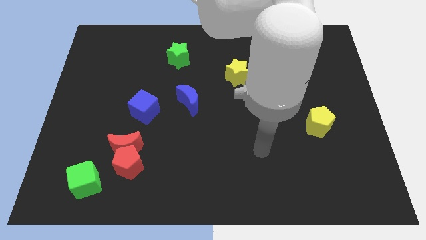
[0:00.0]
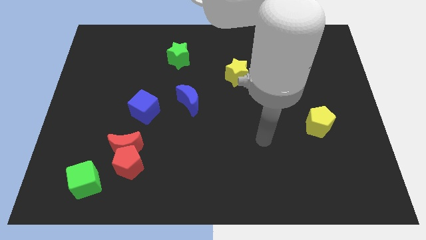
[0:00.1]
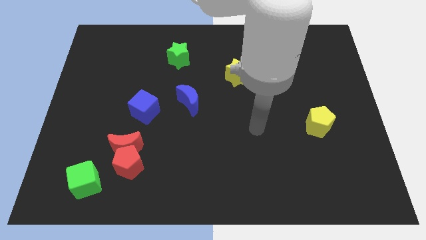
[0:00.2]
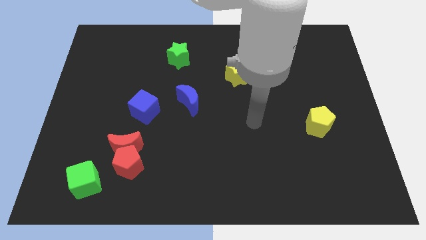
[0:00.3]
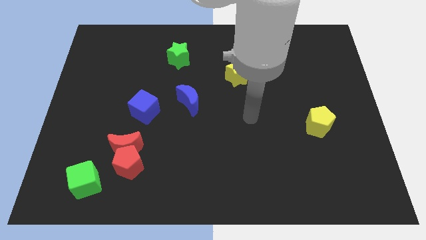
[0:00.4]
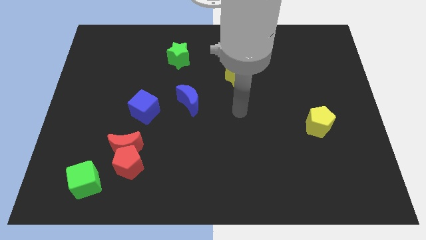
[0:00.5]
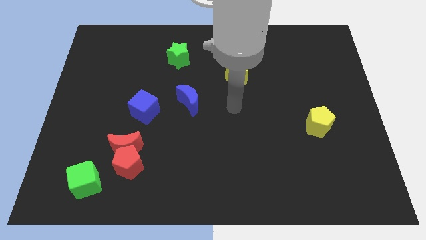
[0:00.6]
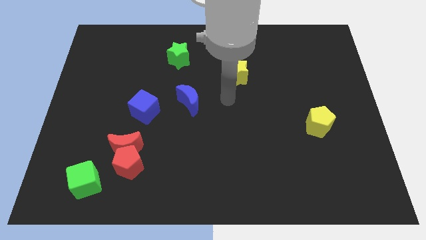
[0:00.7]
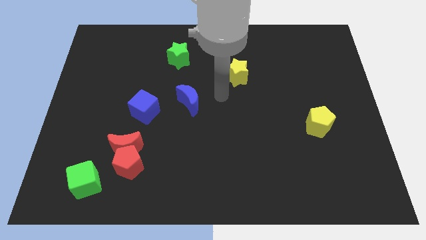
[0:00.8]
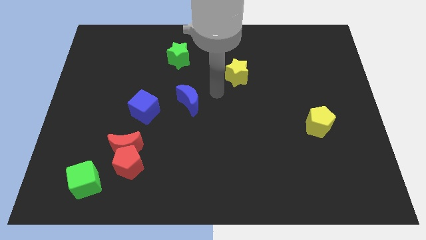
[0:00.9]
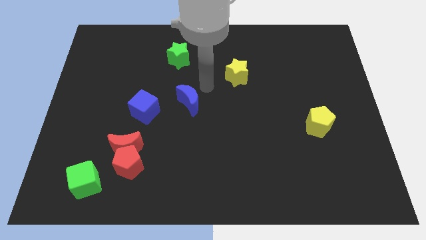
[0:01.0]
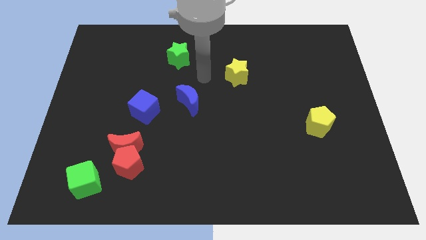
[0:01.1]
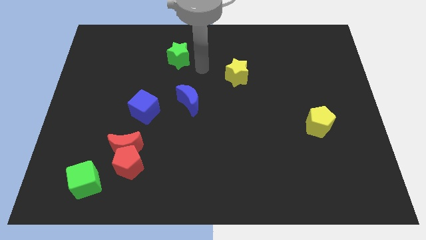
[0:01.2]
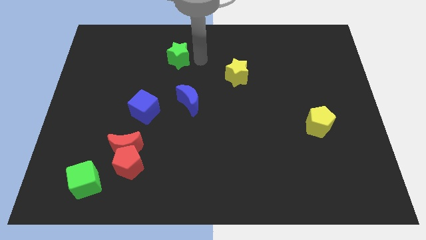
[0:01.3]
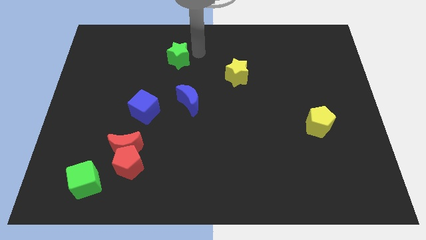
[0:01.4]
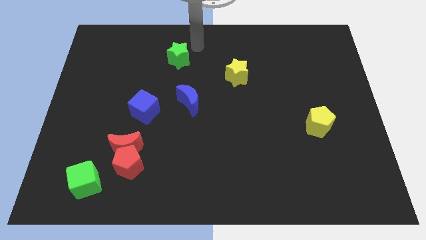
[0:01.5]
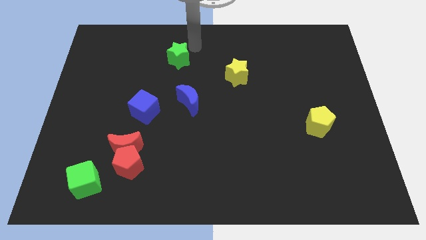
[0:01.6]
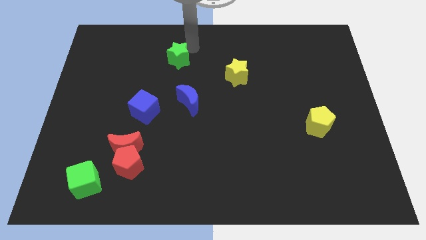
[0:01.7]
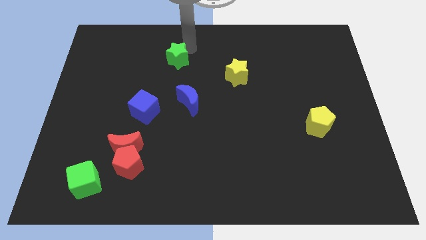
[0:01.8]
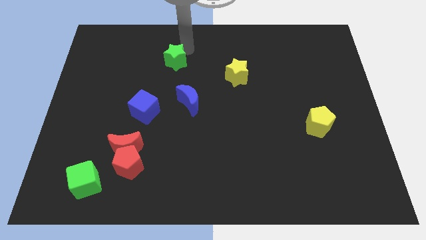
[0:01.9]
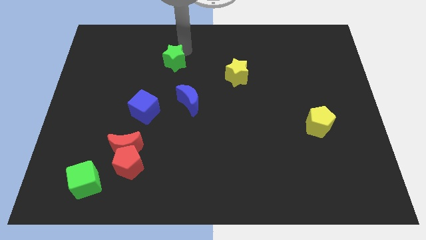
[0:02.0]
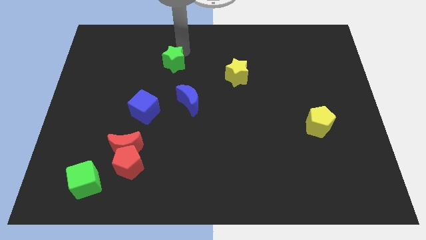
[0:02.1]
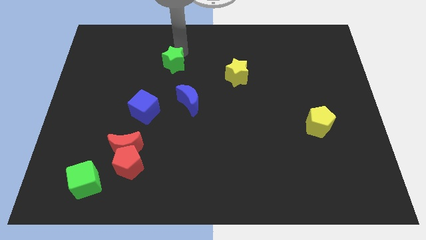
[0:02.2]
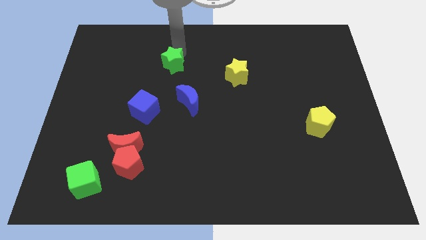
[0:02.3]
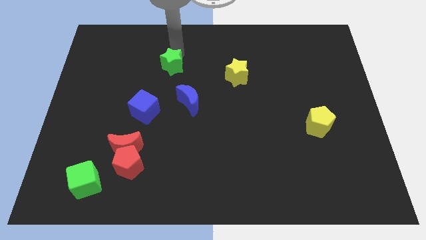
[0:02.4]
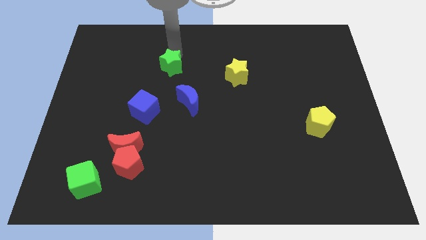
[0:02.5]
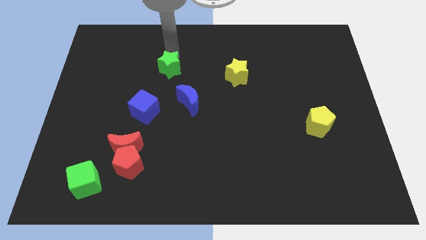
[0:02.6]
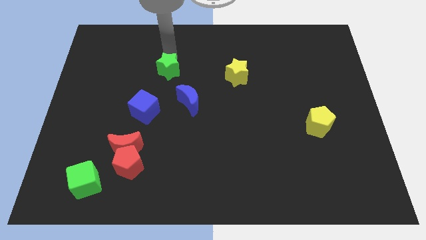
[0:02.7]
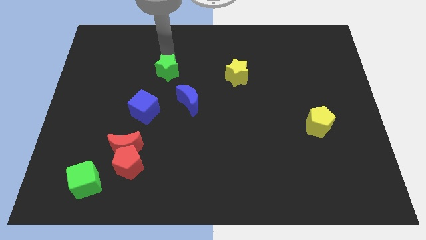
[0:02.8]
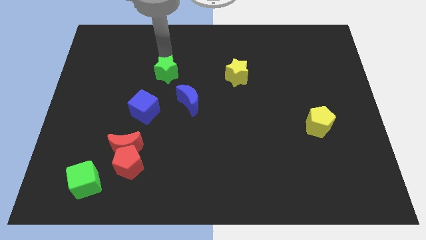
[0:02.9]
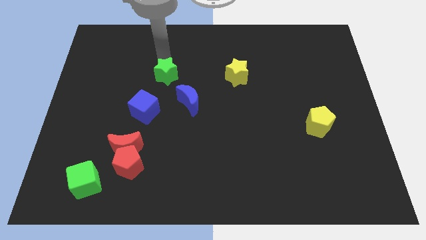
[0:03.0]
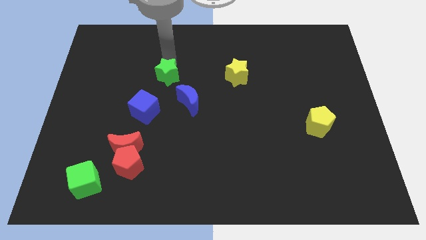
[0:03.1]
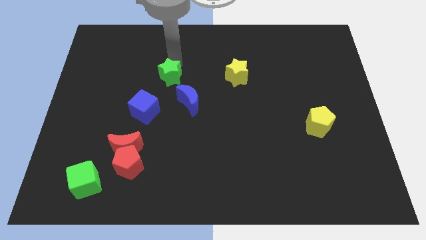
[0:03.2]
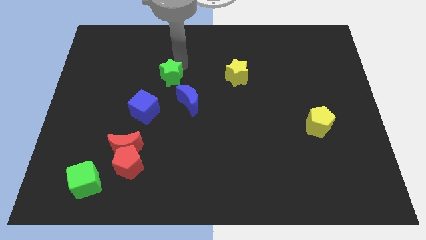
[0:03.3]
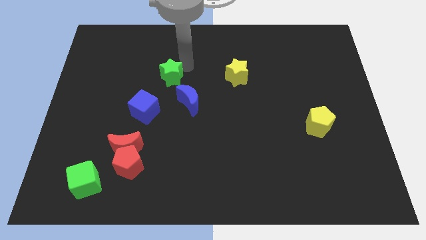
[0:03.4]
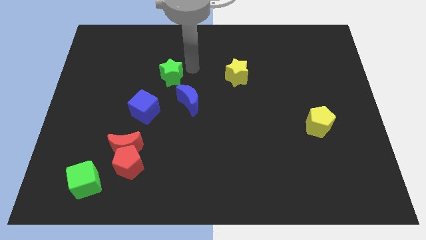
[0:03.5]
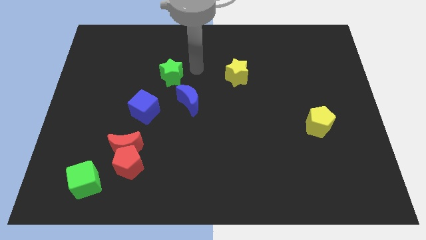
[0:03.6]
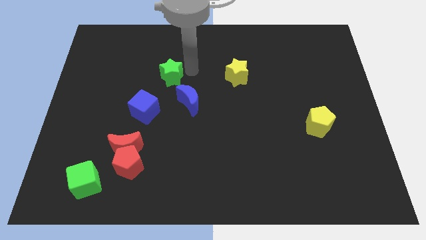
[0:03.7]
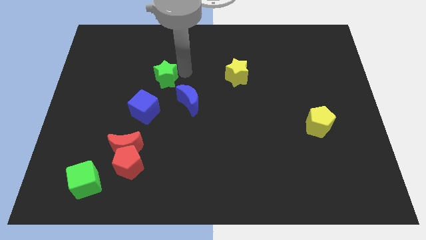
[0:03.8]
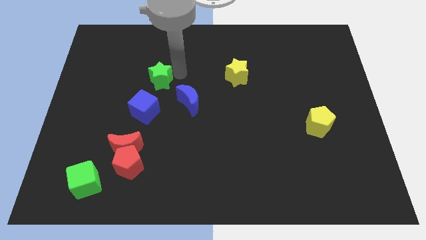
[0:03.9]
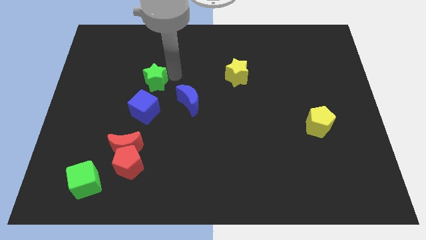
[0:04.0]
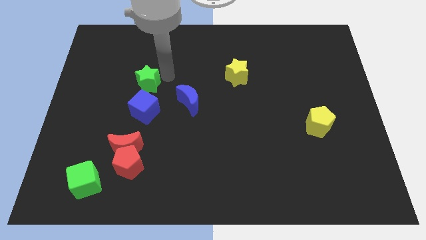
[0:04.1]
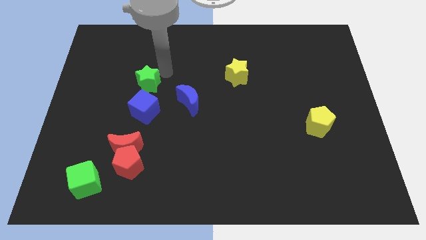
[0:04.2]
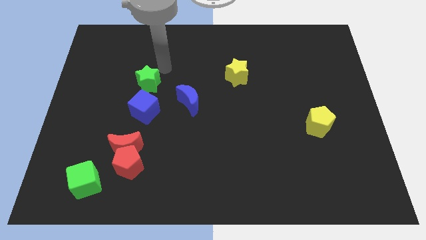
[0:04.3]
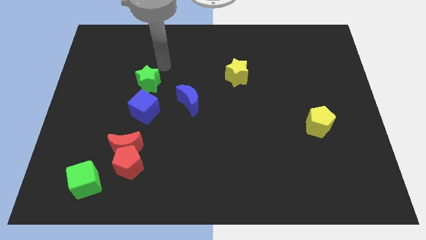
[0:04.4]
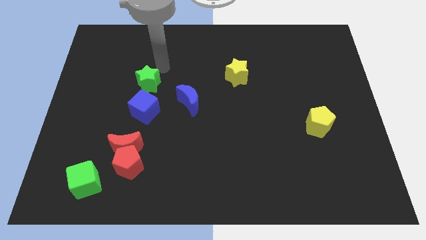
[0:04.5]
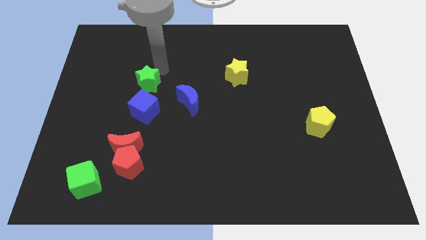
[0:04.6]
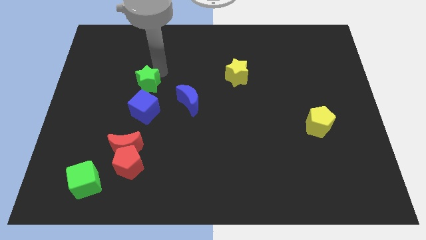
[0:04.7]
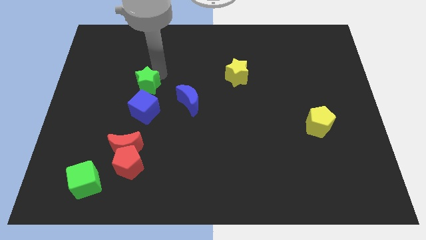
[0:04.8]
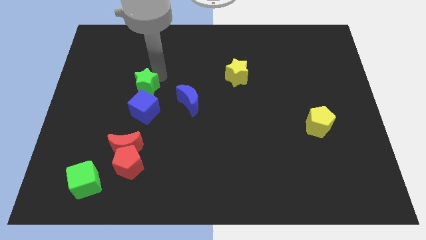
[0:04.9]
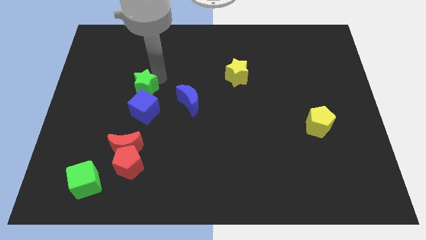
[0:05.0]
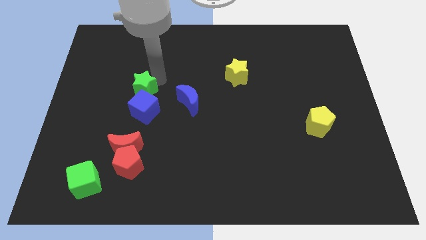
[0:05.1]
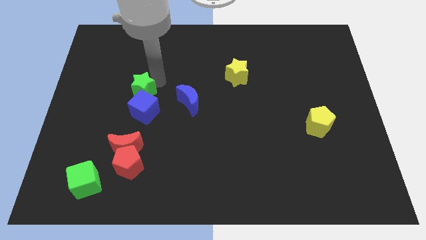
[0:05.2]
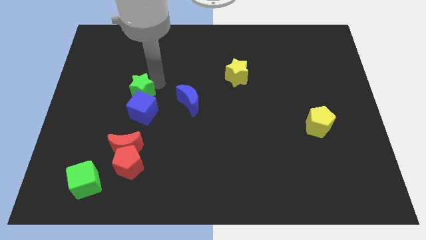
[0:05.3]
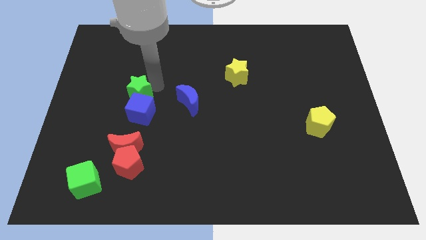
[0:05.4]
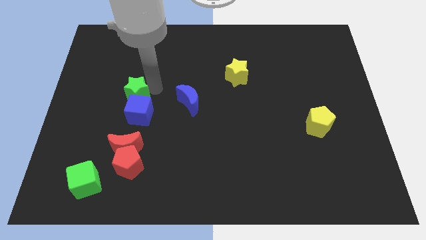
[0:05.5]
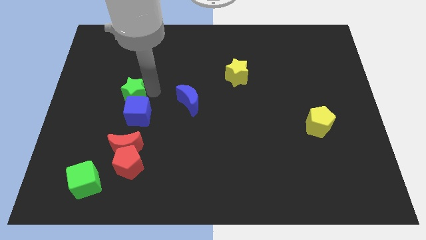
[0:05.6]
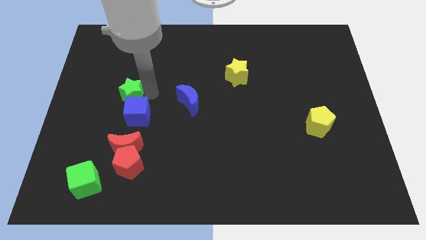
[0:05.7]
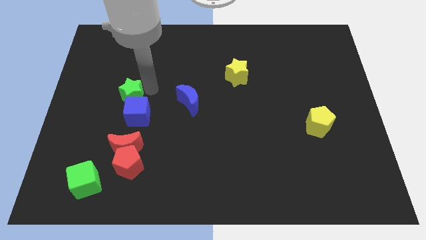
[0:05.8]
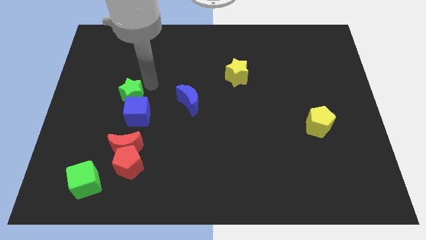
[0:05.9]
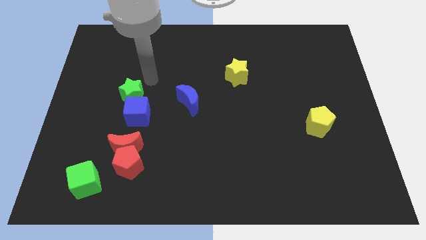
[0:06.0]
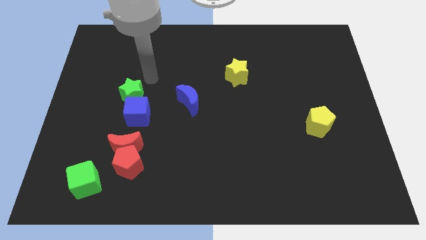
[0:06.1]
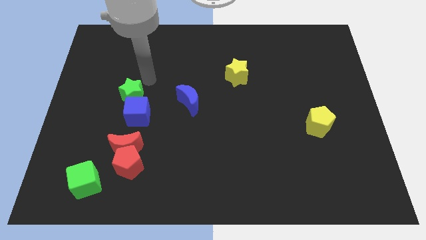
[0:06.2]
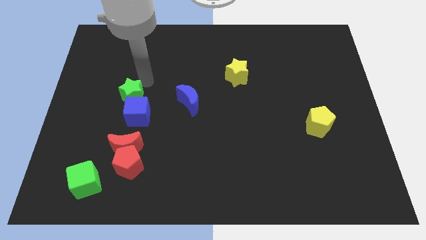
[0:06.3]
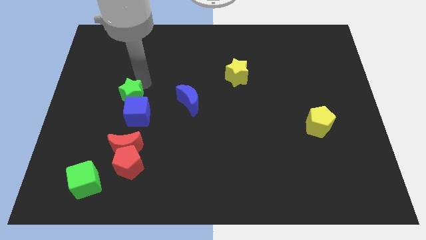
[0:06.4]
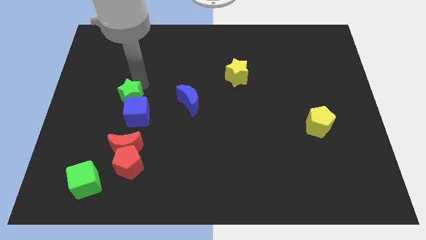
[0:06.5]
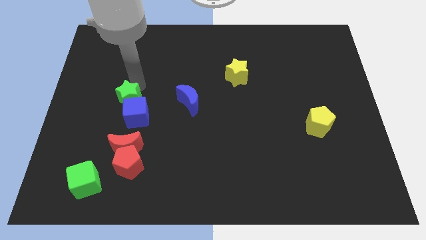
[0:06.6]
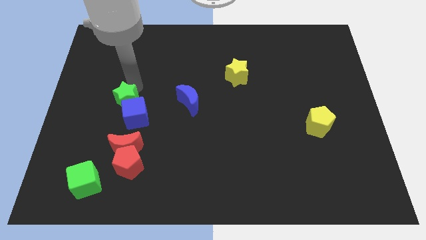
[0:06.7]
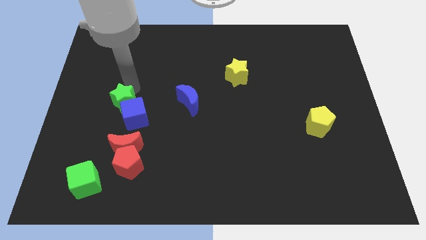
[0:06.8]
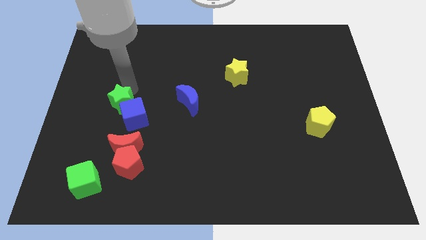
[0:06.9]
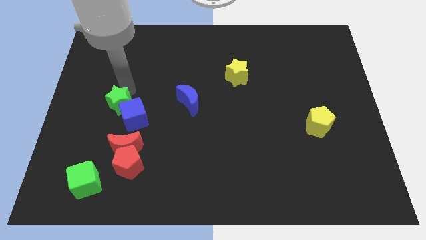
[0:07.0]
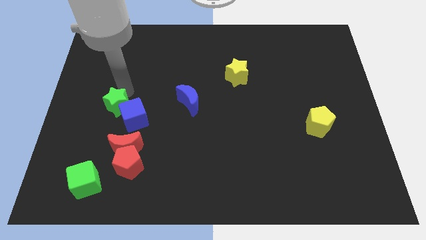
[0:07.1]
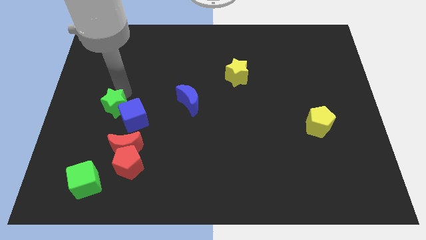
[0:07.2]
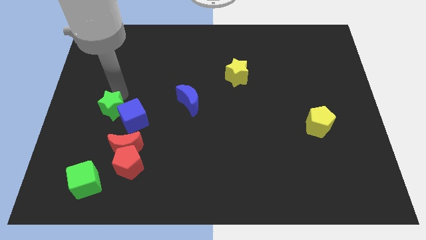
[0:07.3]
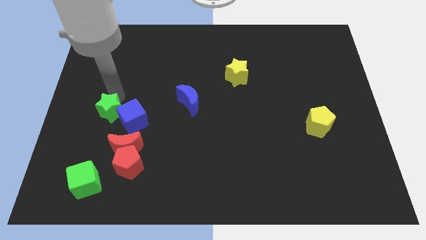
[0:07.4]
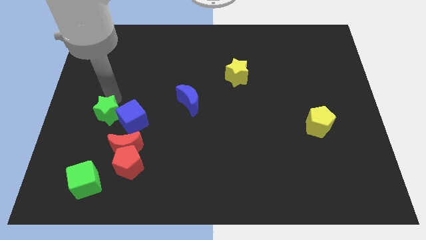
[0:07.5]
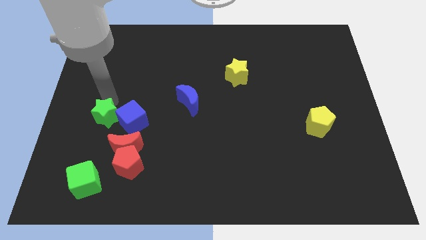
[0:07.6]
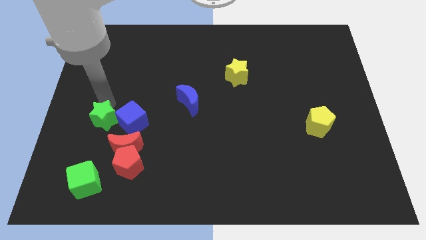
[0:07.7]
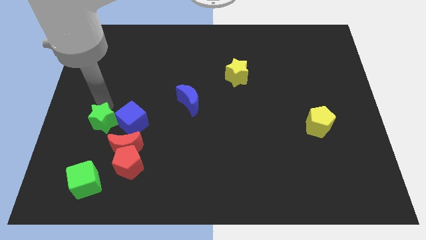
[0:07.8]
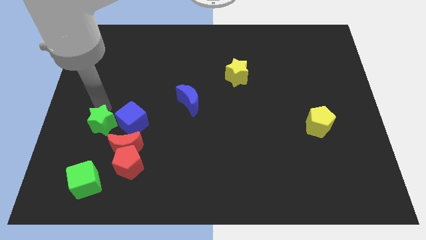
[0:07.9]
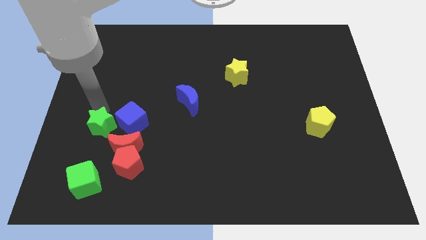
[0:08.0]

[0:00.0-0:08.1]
slide the green star to the top left of the red pentagon
